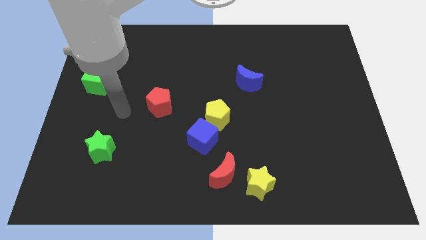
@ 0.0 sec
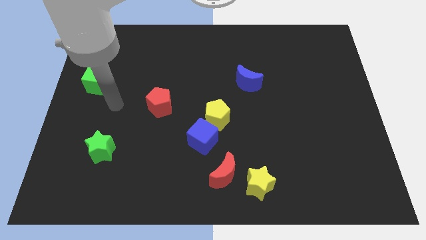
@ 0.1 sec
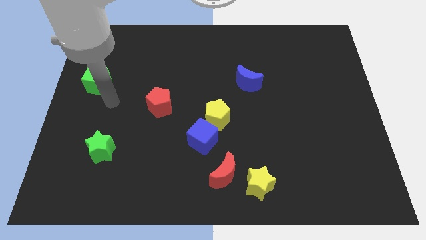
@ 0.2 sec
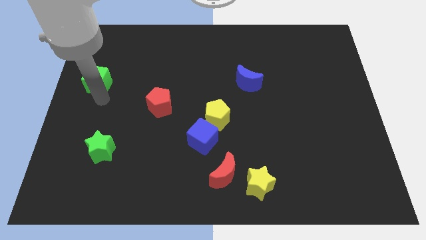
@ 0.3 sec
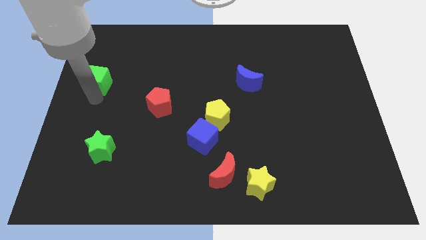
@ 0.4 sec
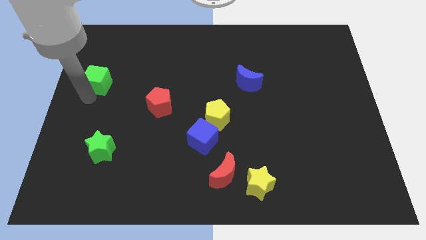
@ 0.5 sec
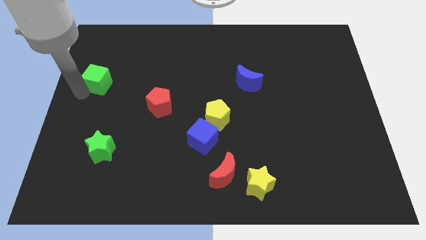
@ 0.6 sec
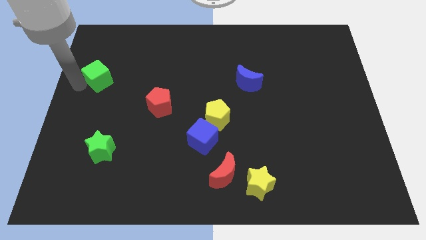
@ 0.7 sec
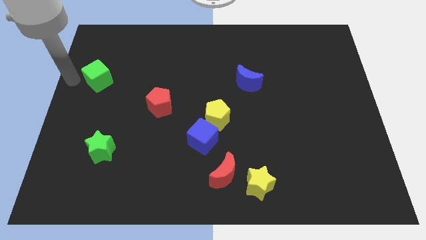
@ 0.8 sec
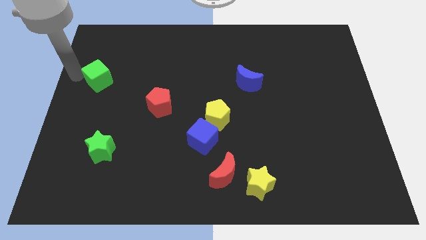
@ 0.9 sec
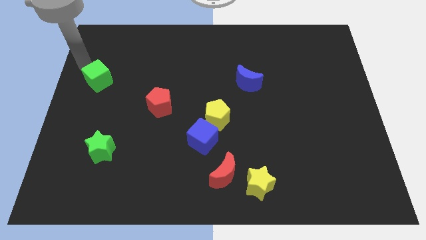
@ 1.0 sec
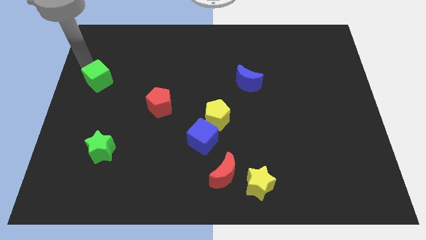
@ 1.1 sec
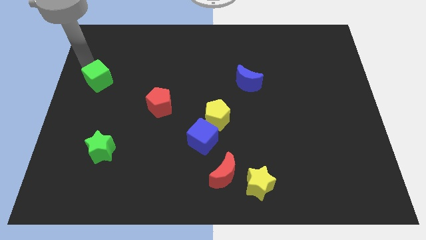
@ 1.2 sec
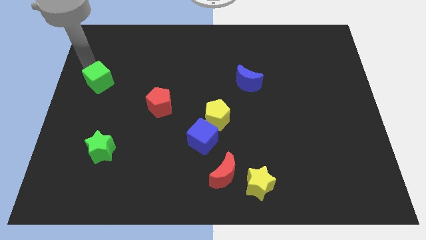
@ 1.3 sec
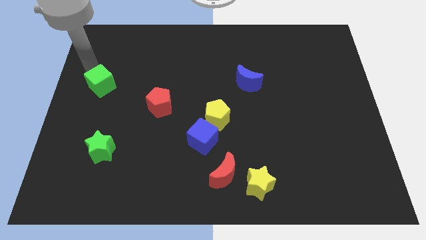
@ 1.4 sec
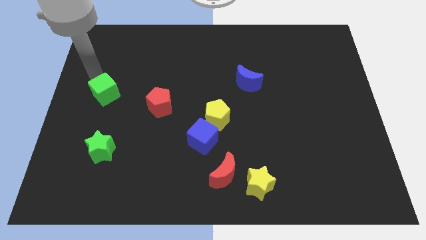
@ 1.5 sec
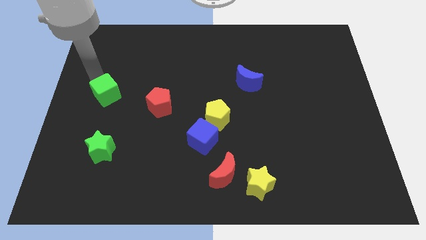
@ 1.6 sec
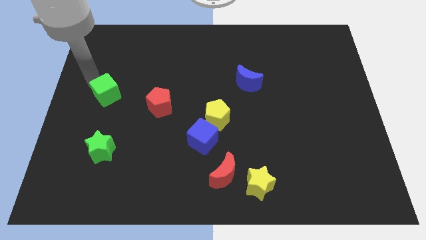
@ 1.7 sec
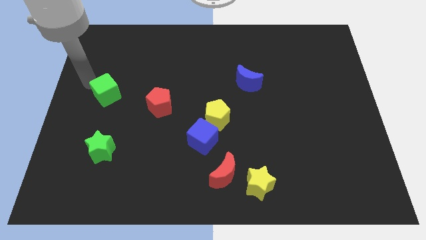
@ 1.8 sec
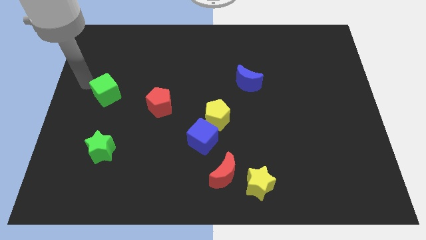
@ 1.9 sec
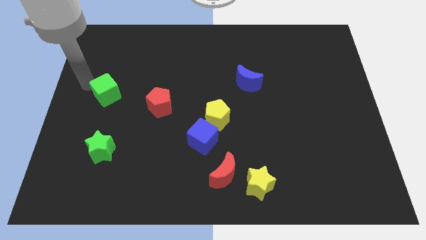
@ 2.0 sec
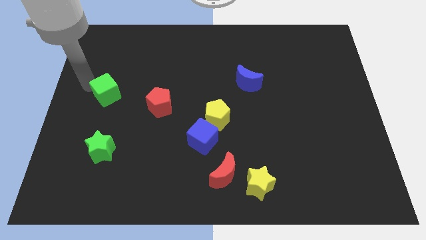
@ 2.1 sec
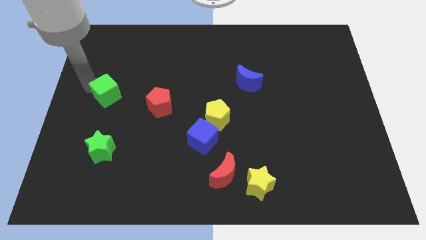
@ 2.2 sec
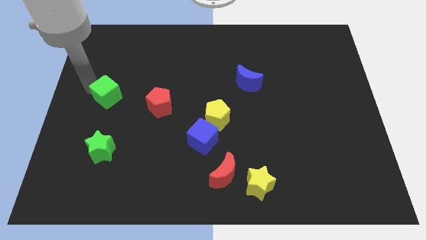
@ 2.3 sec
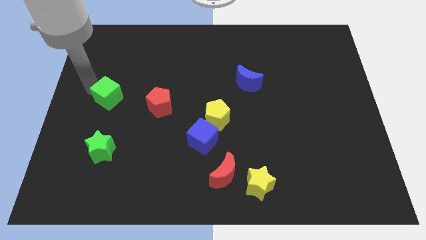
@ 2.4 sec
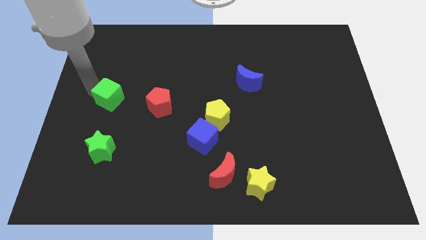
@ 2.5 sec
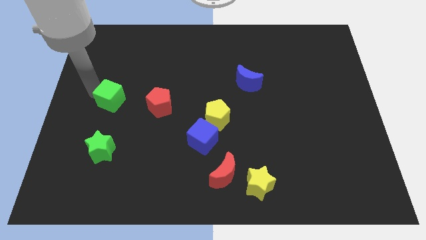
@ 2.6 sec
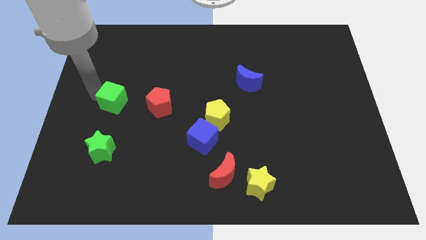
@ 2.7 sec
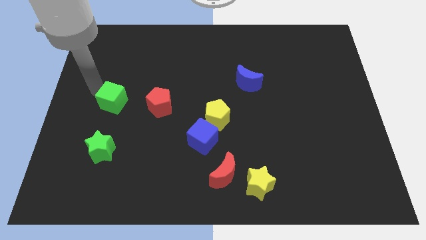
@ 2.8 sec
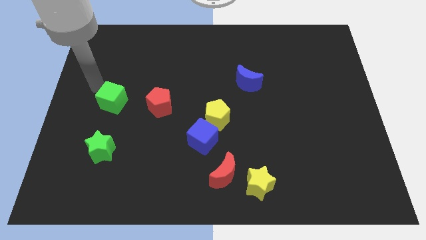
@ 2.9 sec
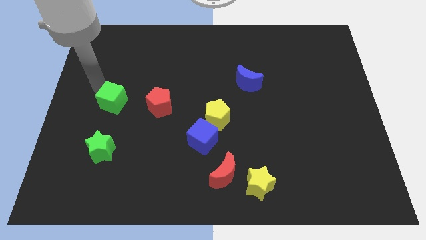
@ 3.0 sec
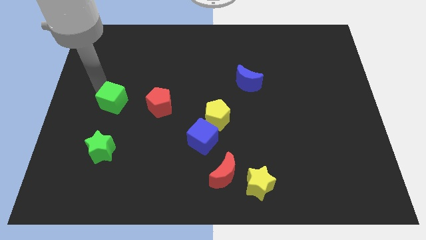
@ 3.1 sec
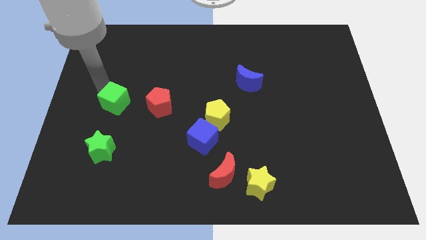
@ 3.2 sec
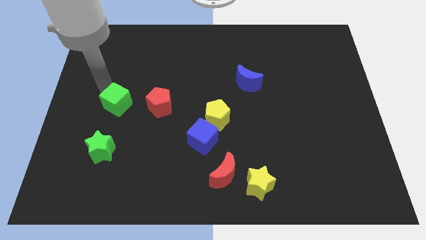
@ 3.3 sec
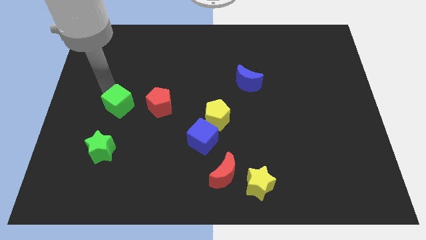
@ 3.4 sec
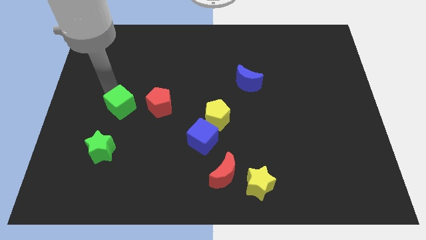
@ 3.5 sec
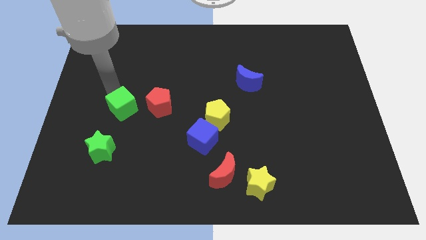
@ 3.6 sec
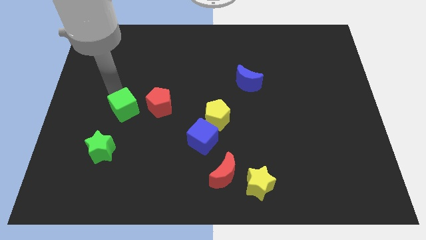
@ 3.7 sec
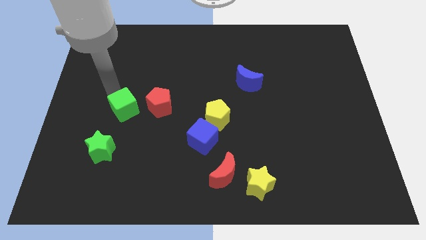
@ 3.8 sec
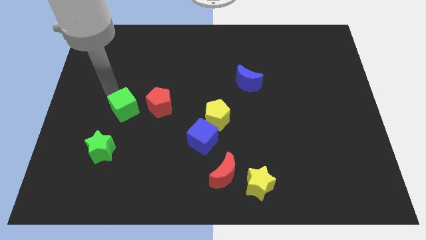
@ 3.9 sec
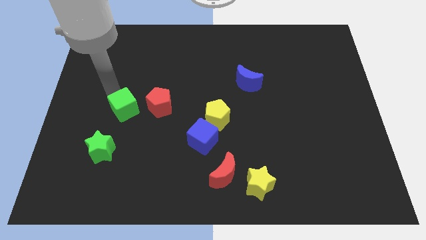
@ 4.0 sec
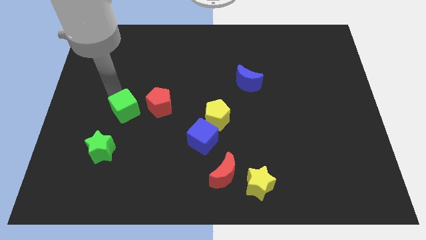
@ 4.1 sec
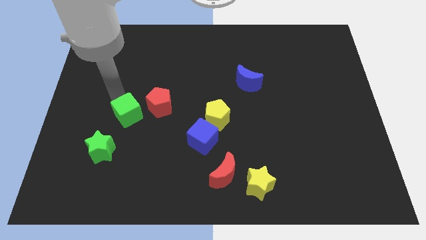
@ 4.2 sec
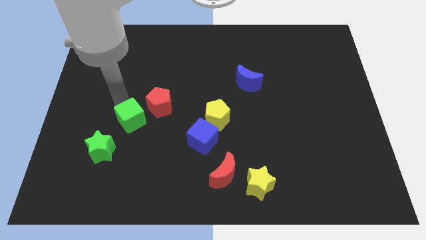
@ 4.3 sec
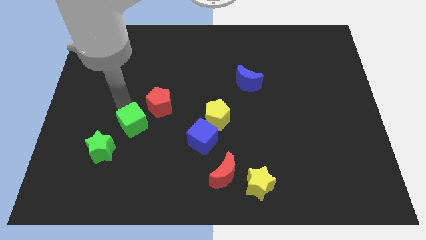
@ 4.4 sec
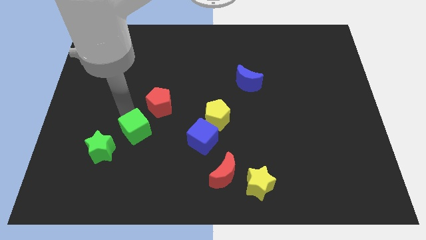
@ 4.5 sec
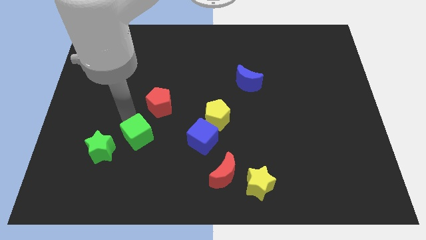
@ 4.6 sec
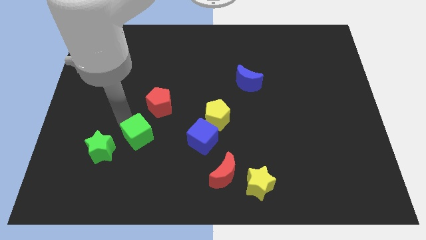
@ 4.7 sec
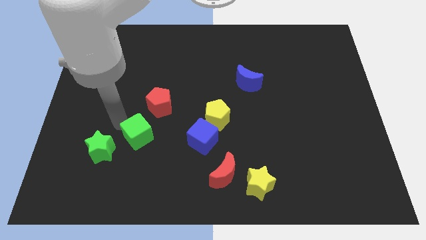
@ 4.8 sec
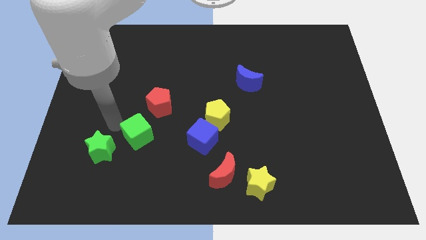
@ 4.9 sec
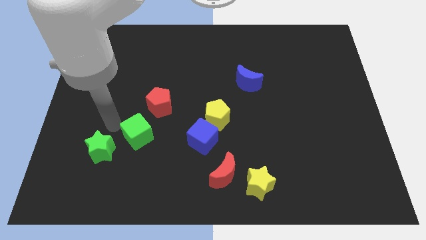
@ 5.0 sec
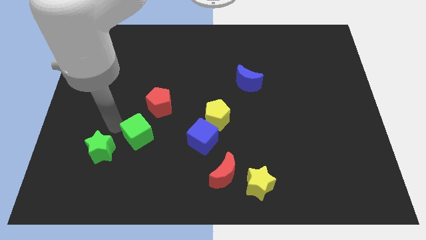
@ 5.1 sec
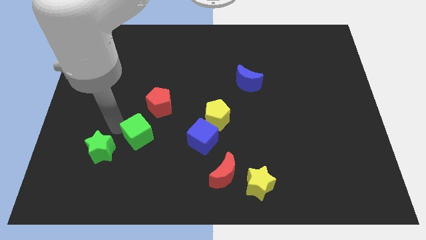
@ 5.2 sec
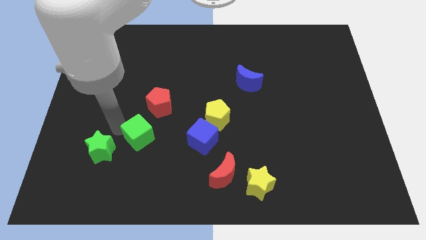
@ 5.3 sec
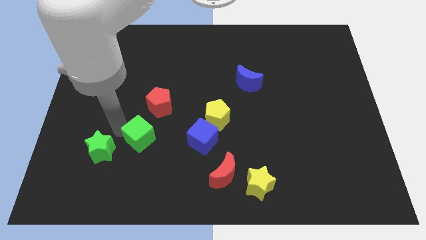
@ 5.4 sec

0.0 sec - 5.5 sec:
slide the green cube diagonally downwards and right

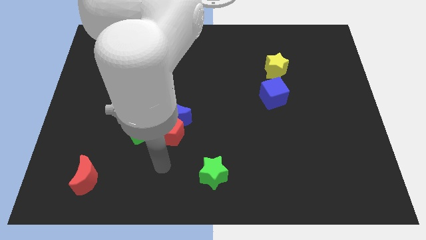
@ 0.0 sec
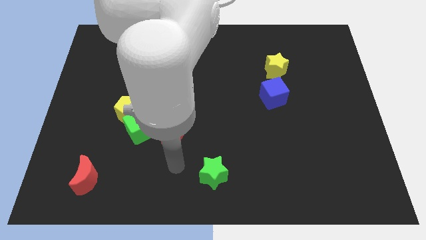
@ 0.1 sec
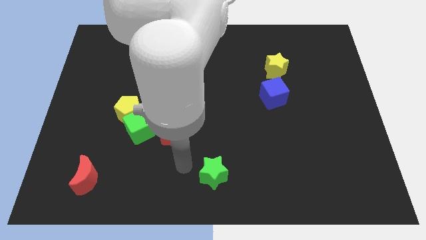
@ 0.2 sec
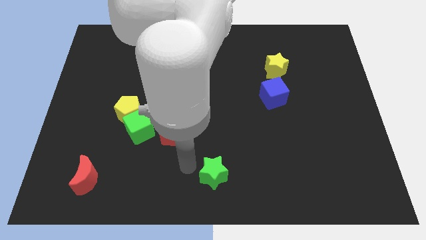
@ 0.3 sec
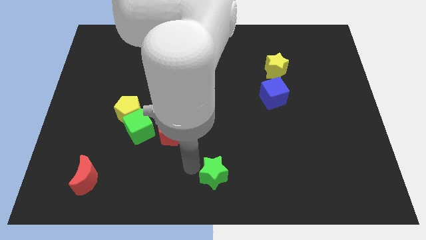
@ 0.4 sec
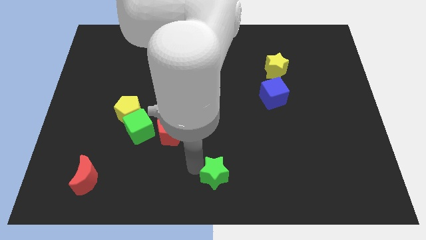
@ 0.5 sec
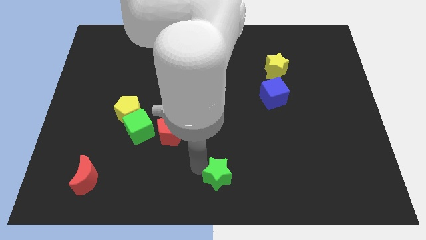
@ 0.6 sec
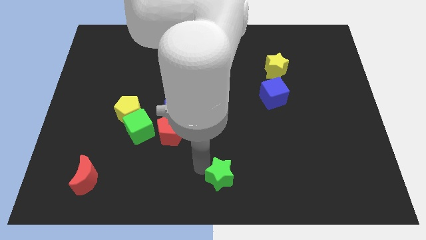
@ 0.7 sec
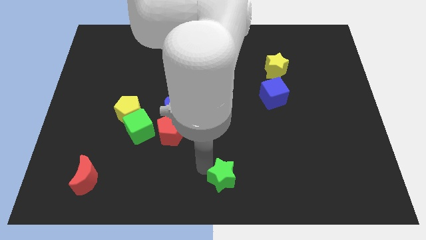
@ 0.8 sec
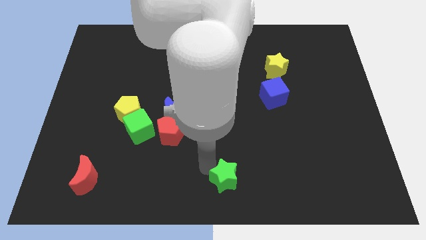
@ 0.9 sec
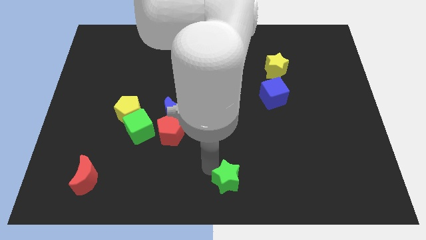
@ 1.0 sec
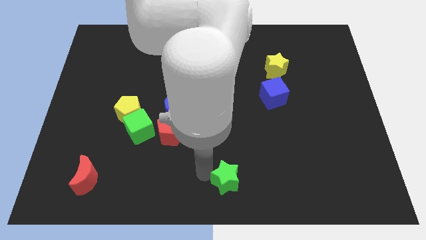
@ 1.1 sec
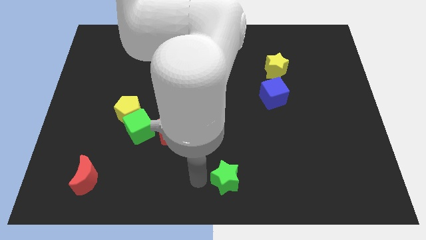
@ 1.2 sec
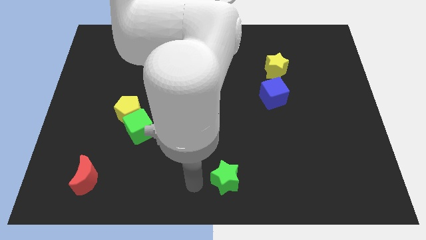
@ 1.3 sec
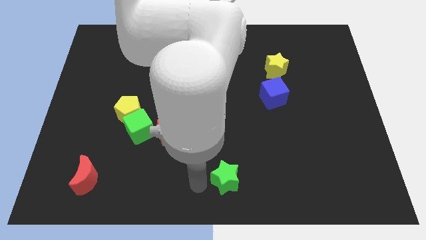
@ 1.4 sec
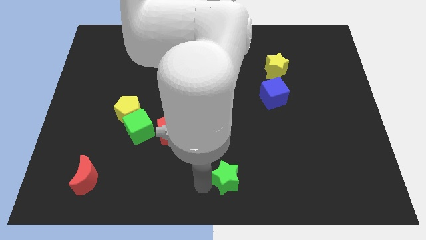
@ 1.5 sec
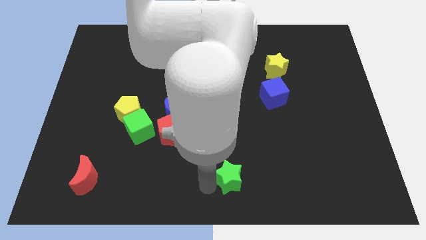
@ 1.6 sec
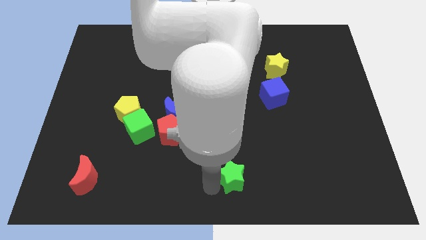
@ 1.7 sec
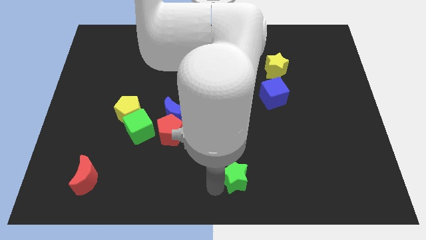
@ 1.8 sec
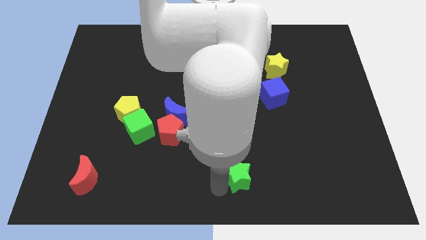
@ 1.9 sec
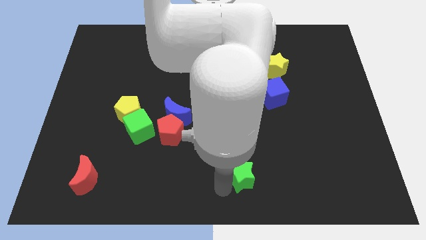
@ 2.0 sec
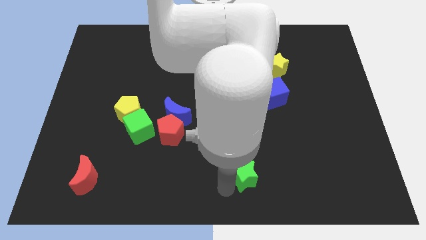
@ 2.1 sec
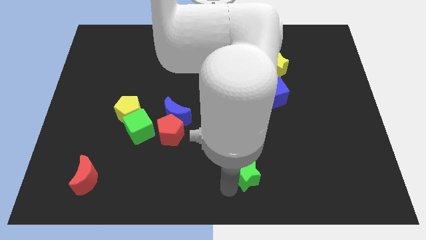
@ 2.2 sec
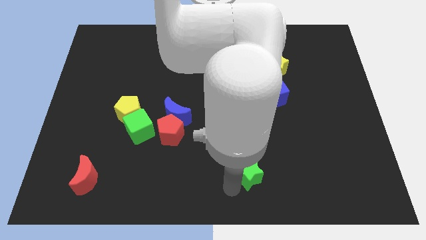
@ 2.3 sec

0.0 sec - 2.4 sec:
slide the green star right slightly

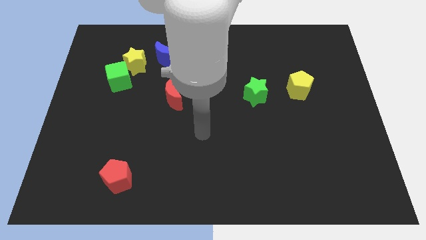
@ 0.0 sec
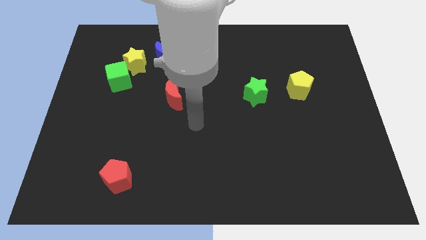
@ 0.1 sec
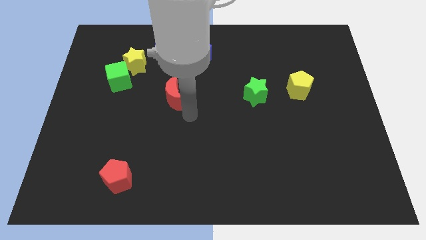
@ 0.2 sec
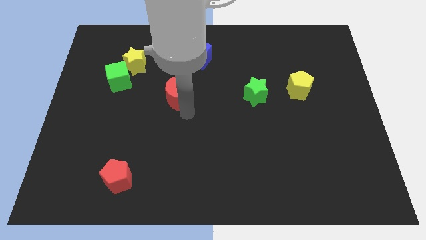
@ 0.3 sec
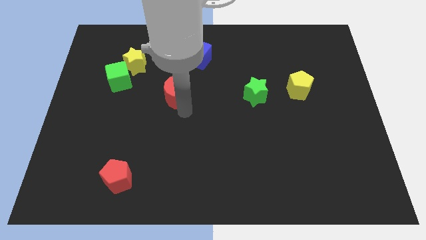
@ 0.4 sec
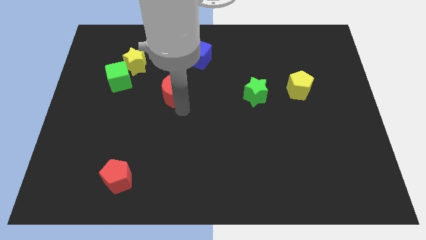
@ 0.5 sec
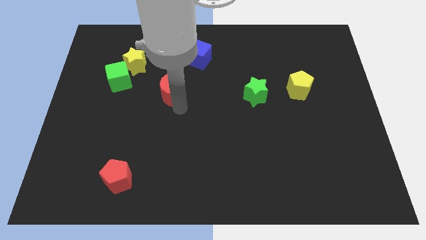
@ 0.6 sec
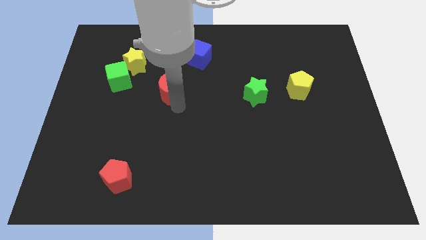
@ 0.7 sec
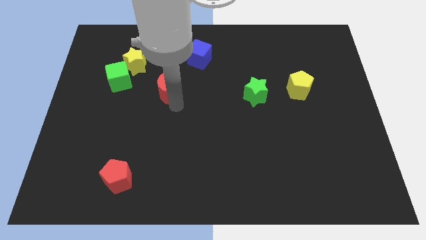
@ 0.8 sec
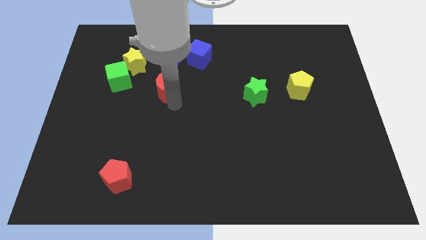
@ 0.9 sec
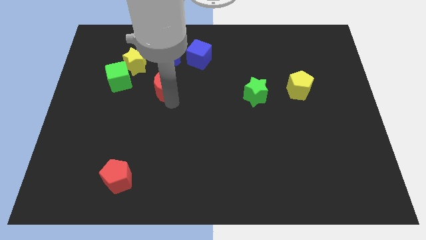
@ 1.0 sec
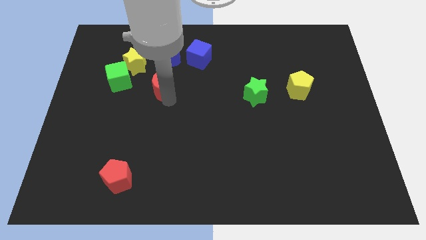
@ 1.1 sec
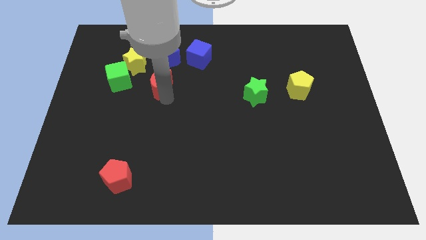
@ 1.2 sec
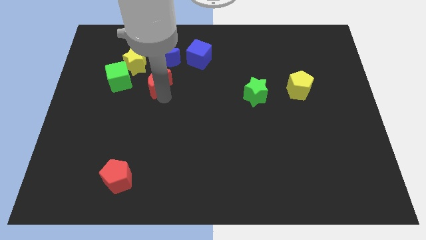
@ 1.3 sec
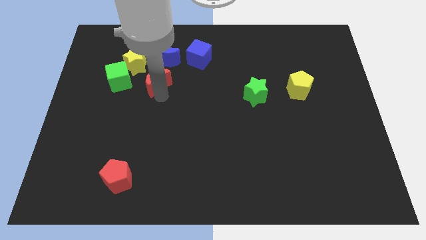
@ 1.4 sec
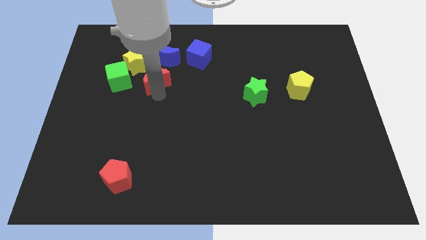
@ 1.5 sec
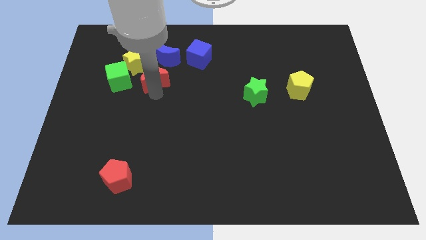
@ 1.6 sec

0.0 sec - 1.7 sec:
push the red moon upwards and left a little bit
